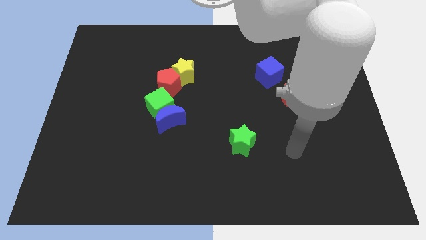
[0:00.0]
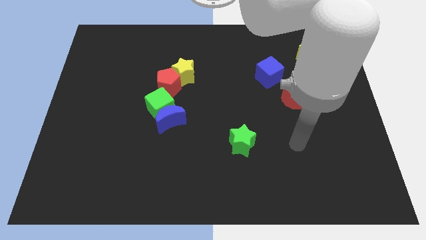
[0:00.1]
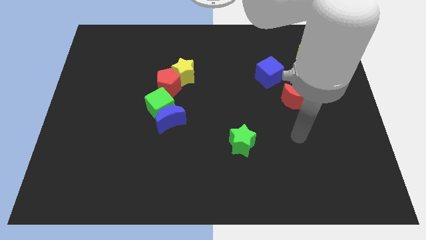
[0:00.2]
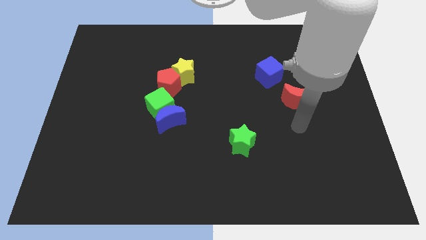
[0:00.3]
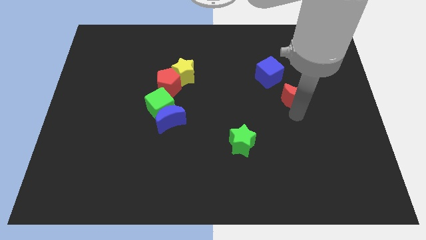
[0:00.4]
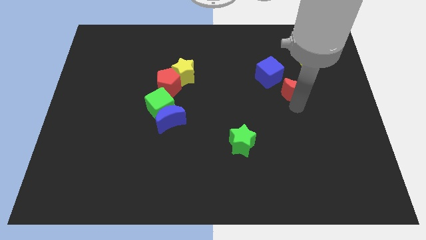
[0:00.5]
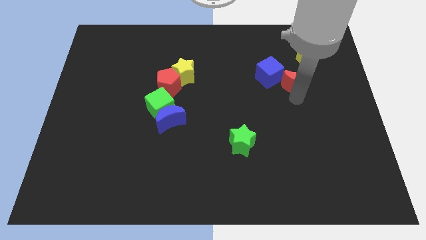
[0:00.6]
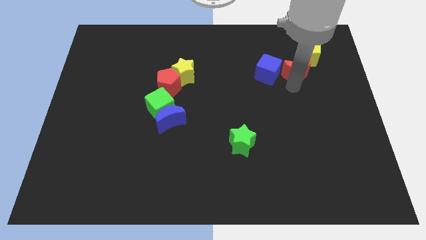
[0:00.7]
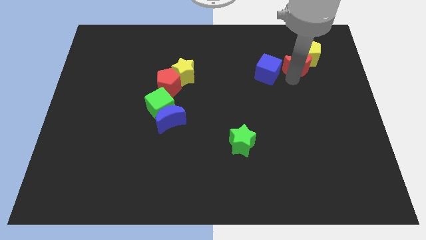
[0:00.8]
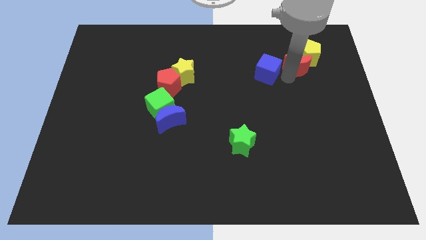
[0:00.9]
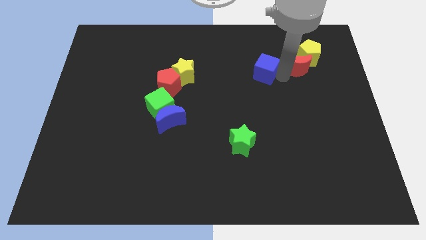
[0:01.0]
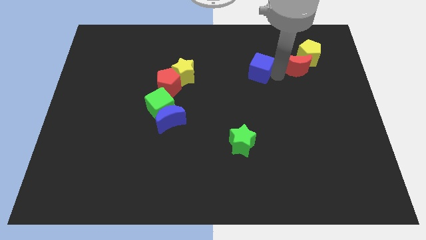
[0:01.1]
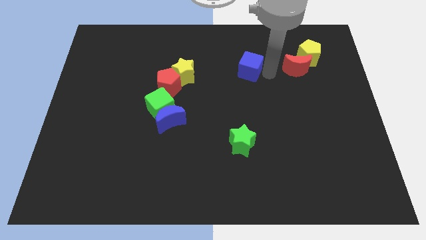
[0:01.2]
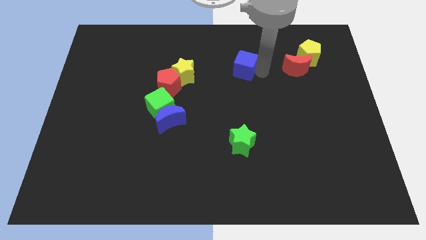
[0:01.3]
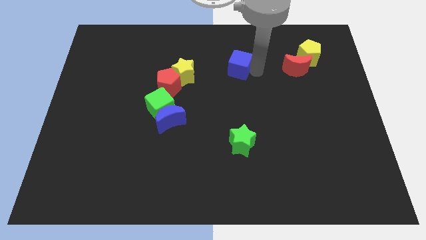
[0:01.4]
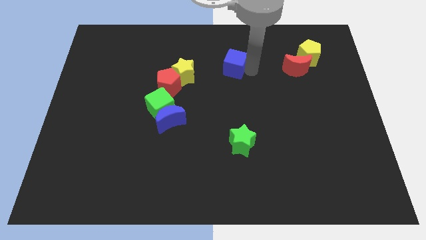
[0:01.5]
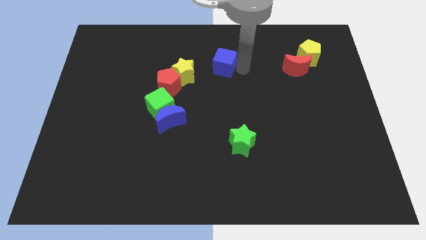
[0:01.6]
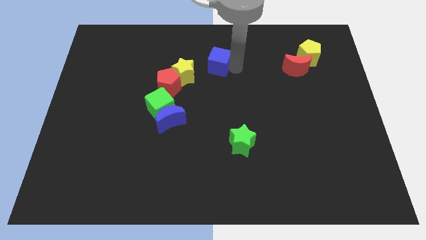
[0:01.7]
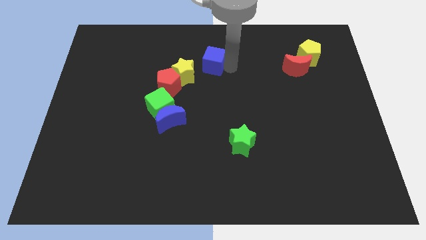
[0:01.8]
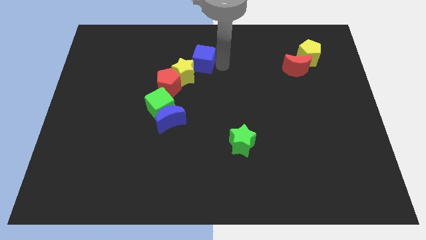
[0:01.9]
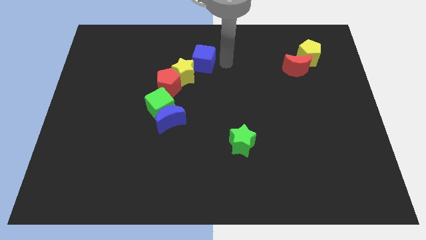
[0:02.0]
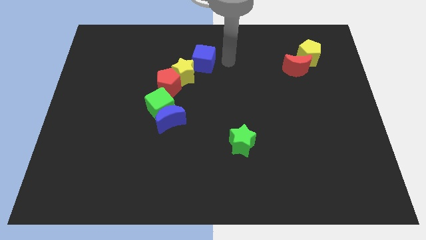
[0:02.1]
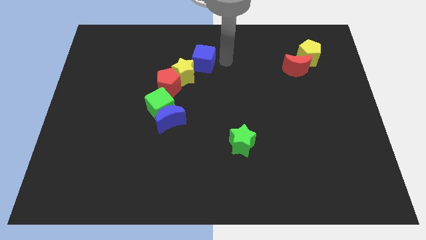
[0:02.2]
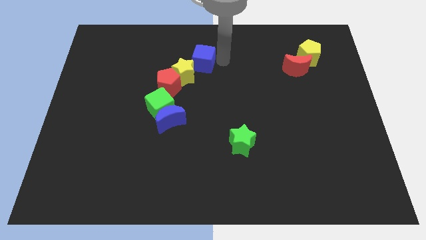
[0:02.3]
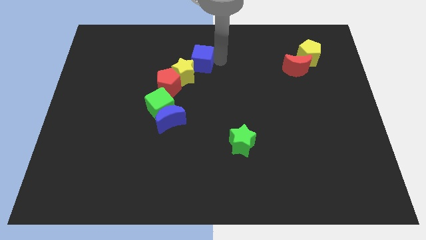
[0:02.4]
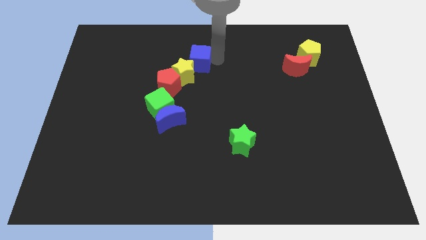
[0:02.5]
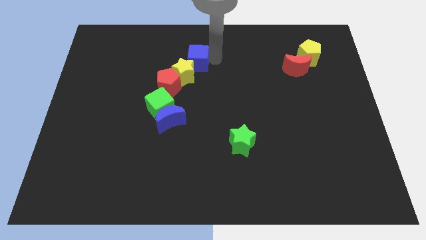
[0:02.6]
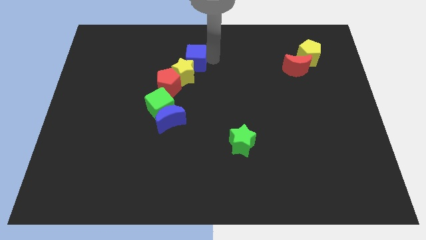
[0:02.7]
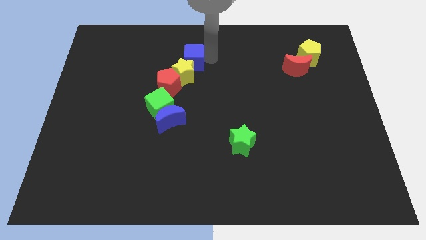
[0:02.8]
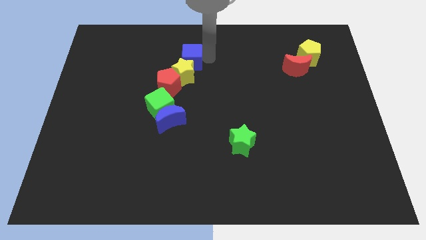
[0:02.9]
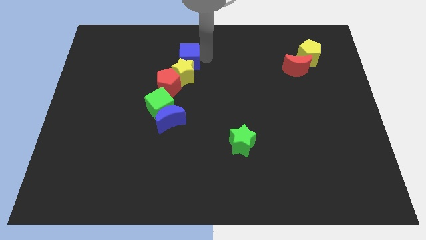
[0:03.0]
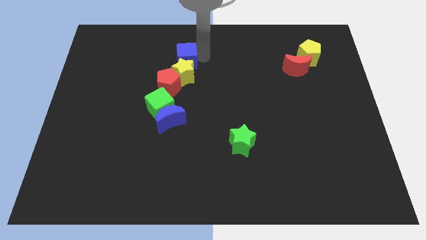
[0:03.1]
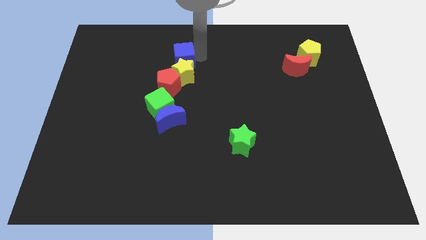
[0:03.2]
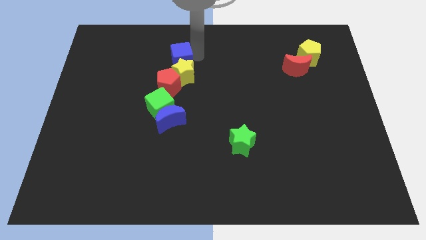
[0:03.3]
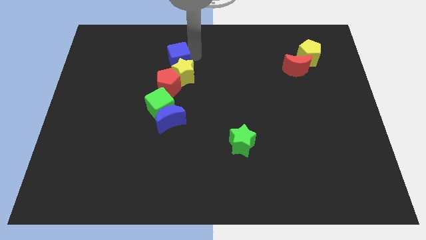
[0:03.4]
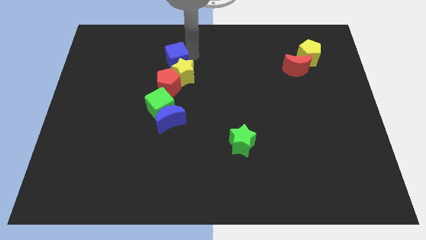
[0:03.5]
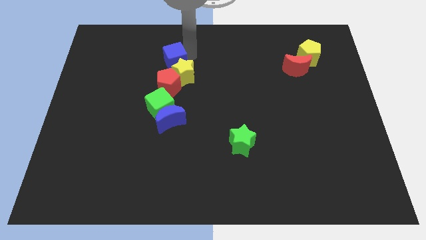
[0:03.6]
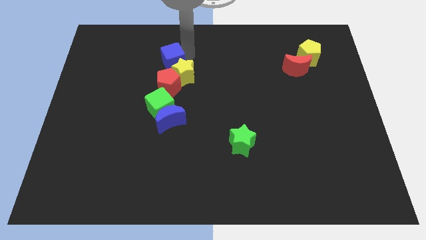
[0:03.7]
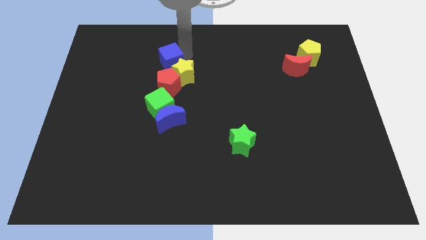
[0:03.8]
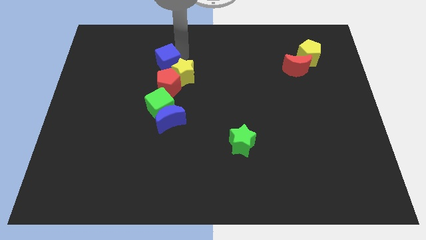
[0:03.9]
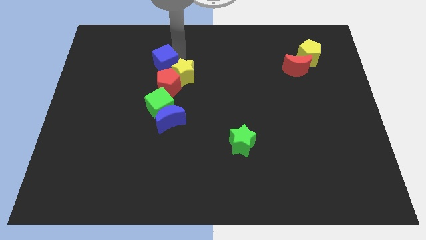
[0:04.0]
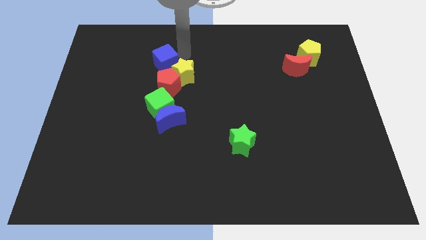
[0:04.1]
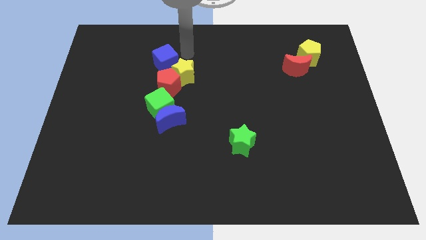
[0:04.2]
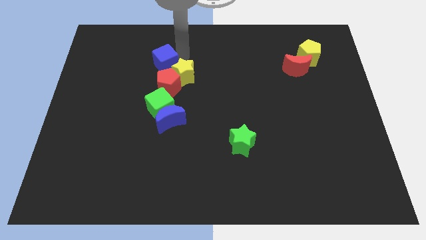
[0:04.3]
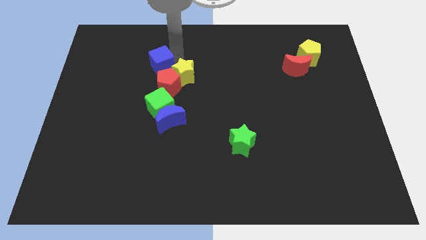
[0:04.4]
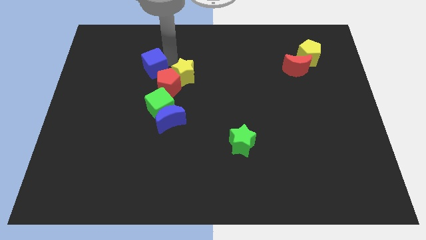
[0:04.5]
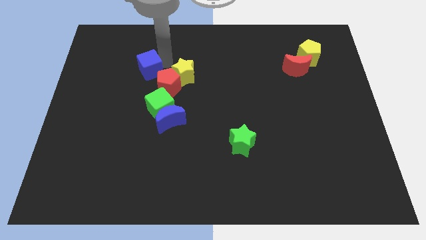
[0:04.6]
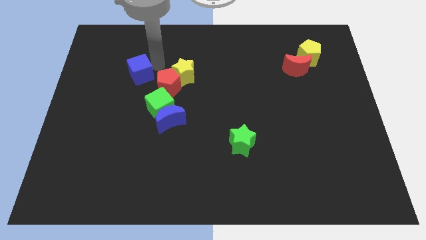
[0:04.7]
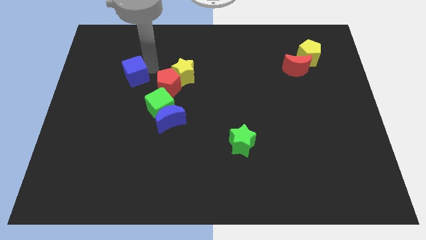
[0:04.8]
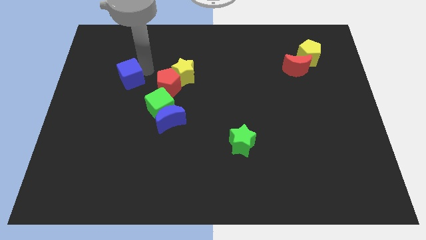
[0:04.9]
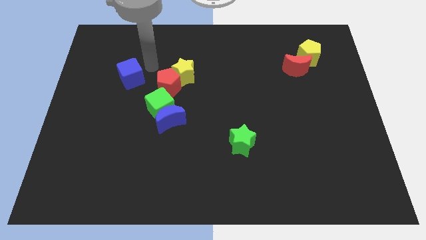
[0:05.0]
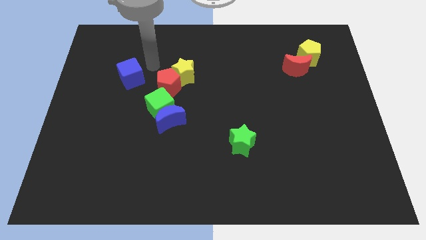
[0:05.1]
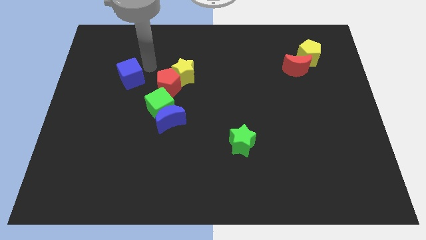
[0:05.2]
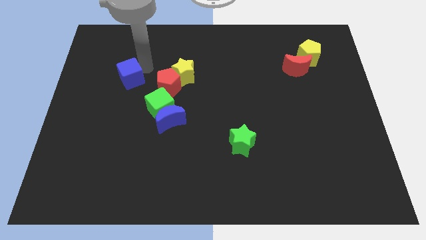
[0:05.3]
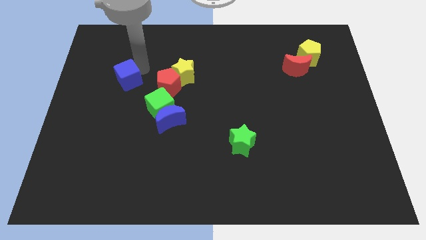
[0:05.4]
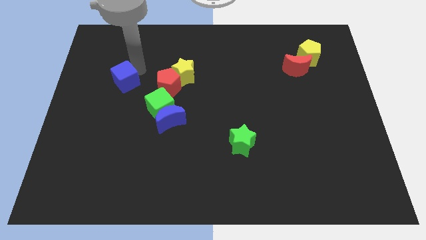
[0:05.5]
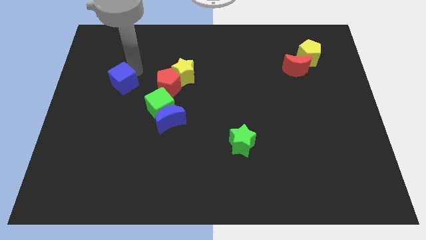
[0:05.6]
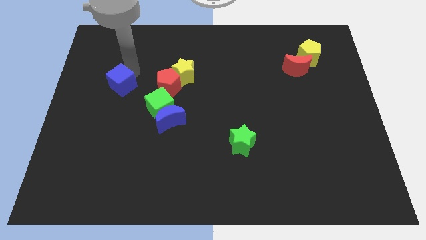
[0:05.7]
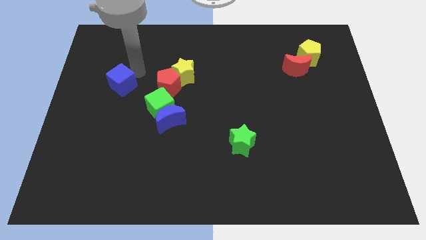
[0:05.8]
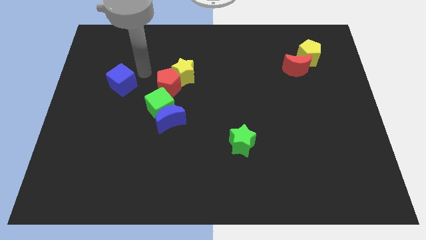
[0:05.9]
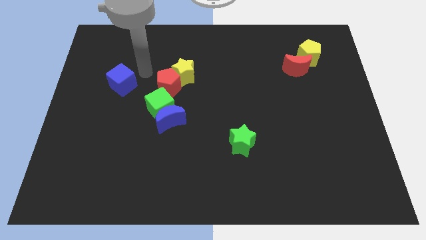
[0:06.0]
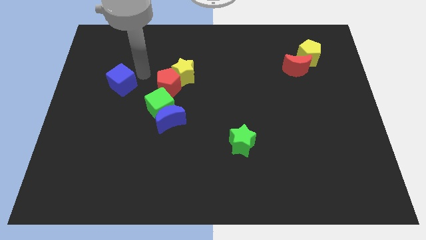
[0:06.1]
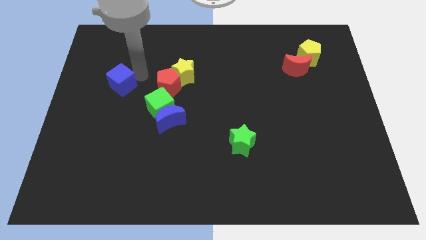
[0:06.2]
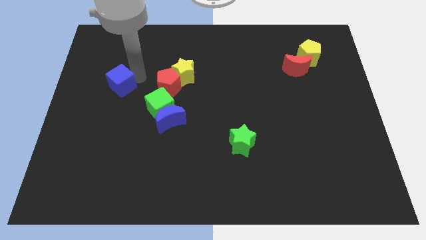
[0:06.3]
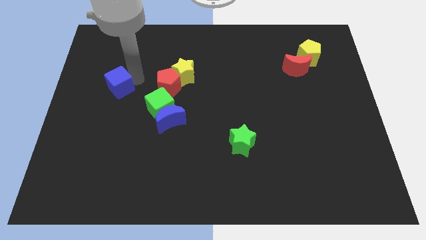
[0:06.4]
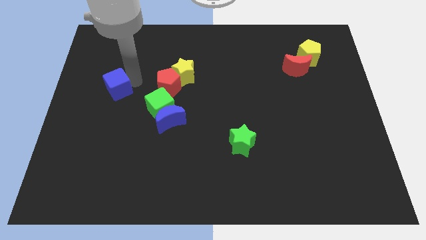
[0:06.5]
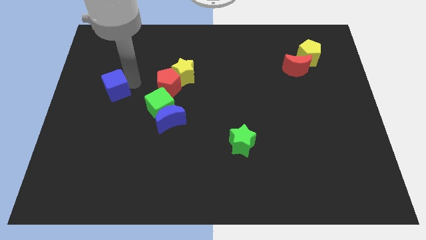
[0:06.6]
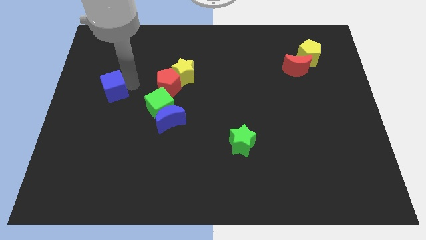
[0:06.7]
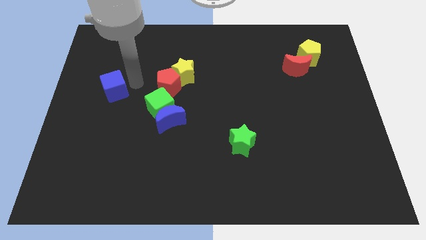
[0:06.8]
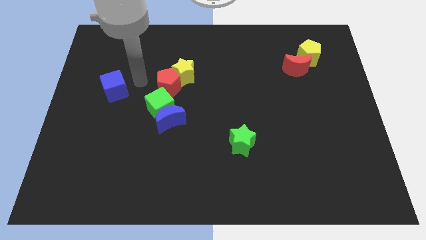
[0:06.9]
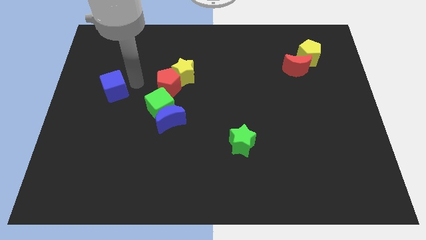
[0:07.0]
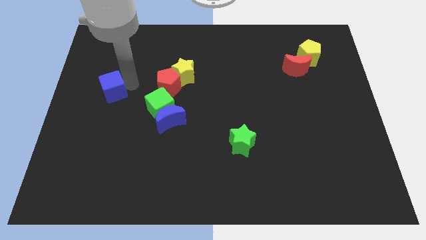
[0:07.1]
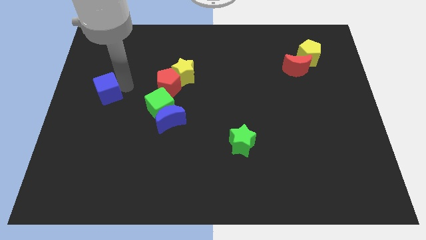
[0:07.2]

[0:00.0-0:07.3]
push the blue cube to the left side
